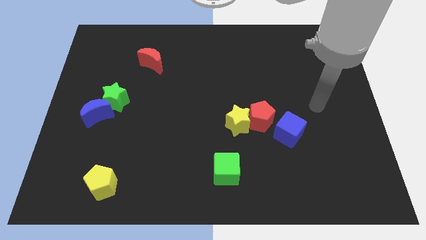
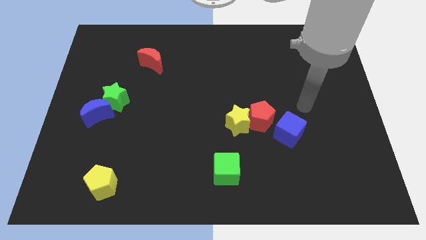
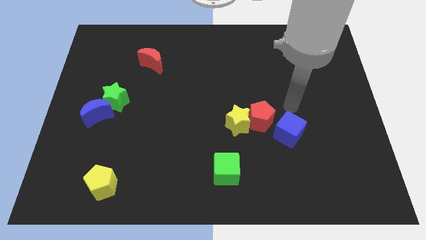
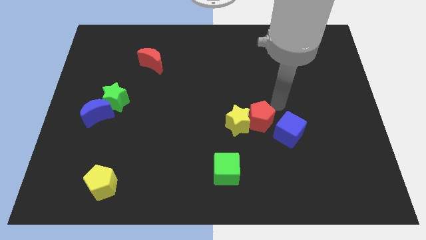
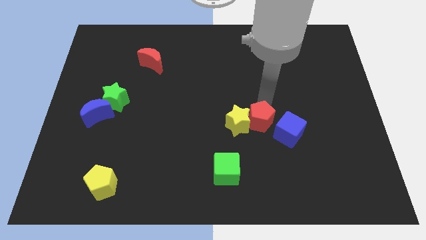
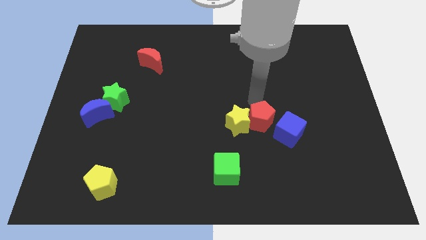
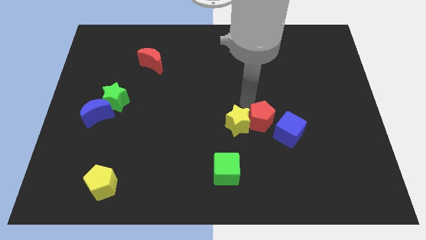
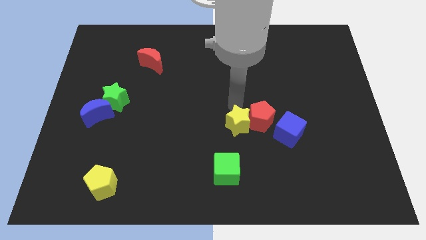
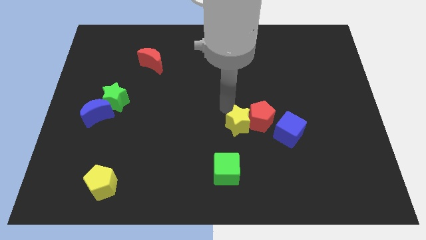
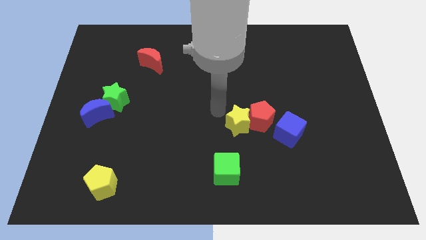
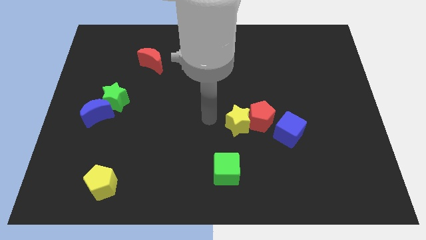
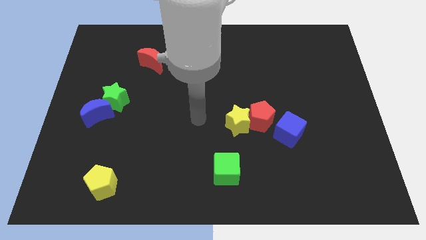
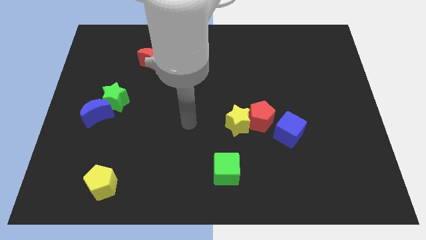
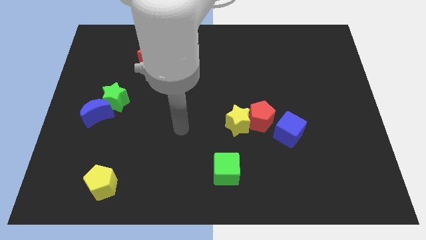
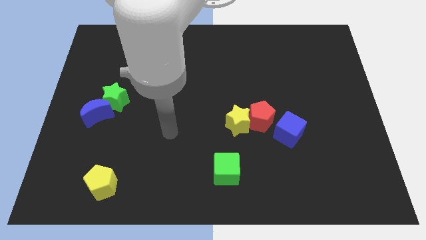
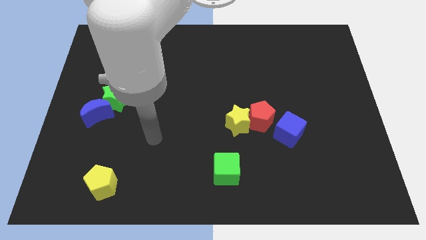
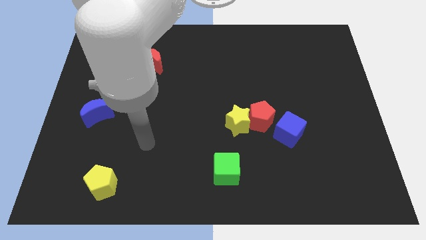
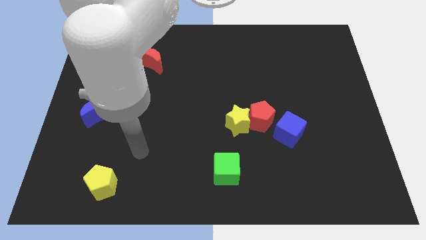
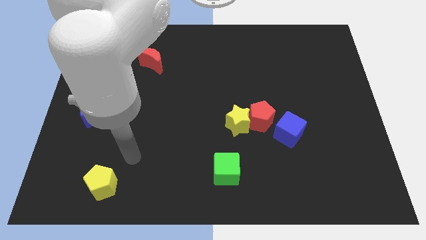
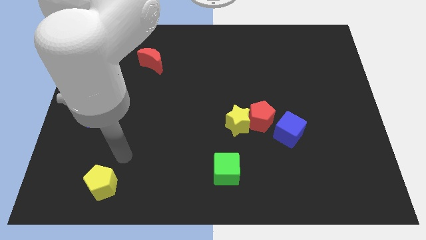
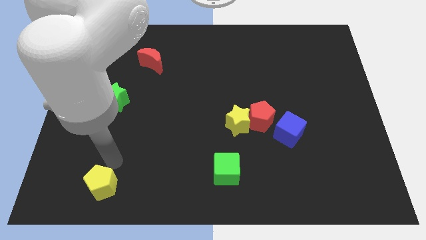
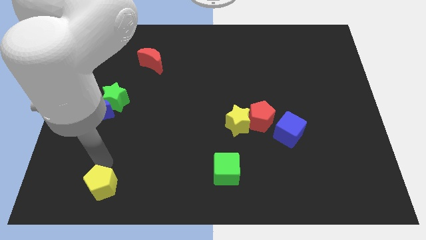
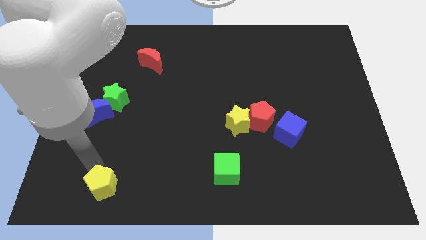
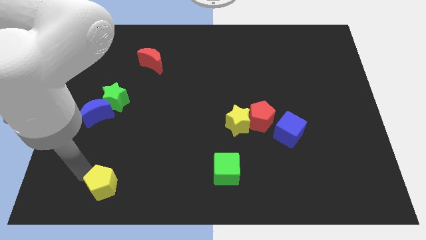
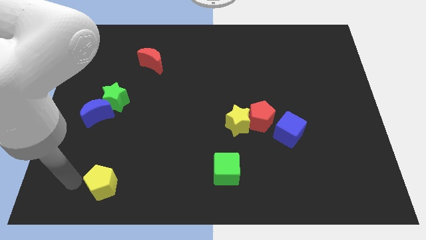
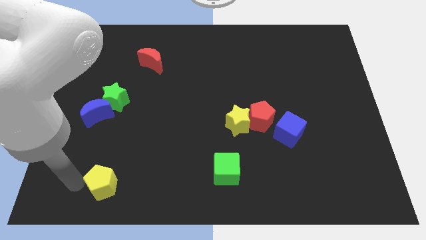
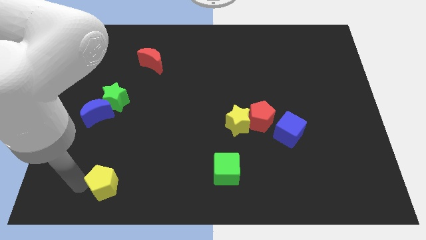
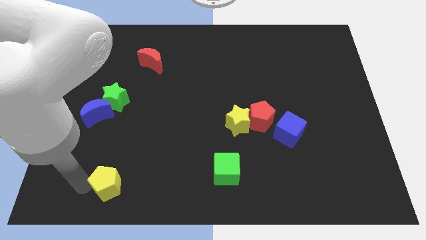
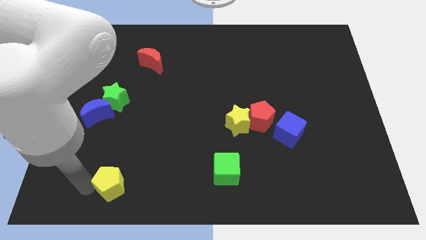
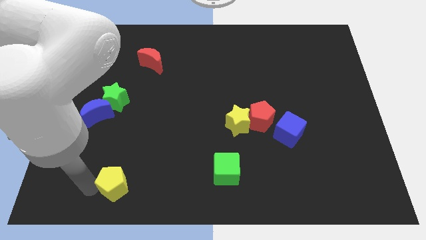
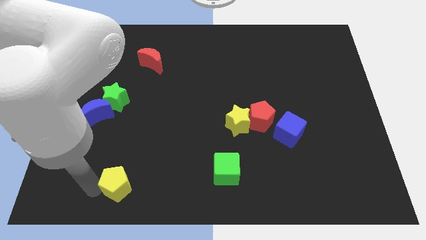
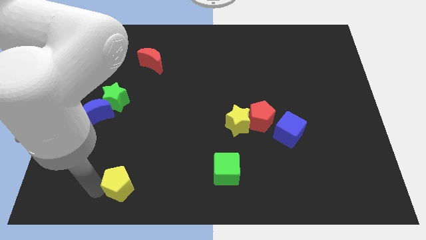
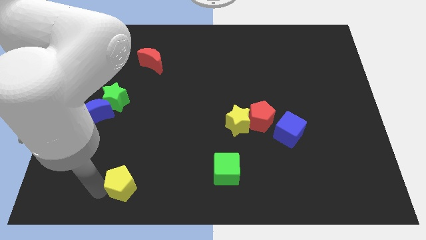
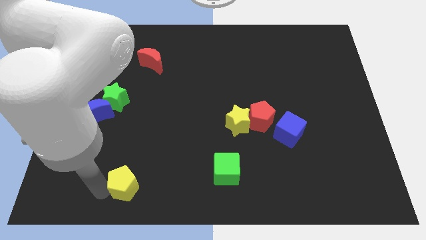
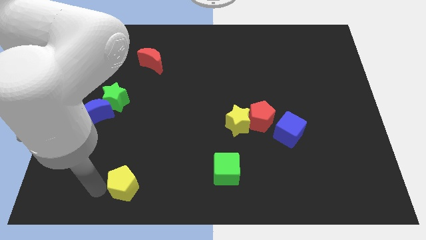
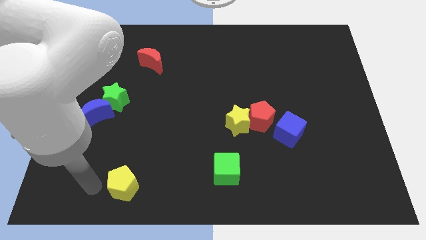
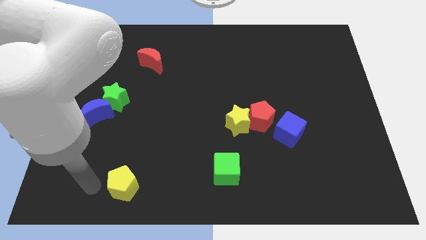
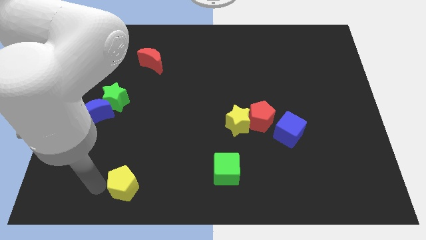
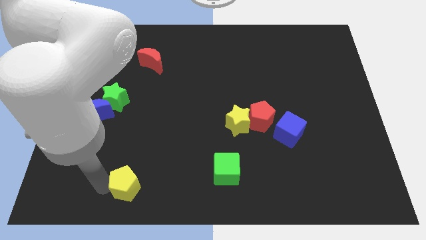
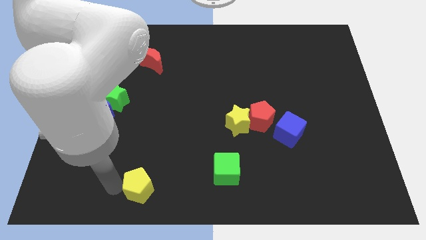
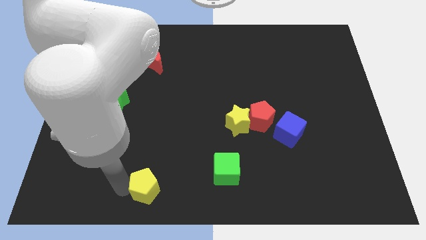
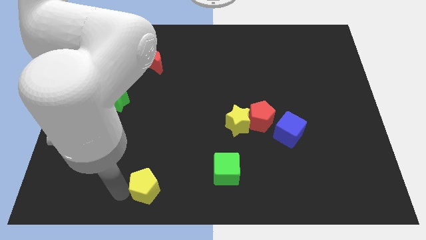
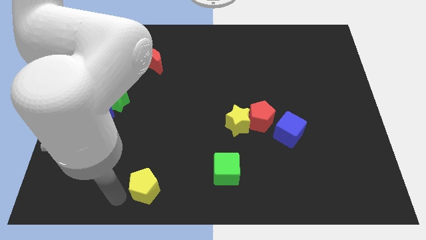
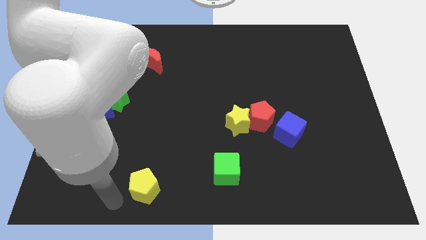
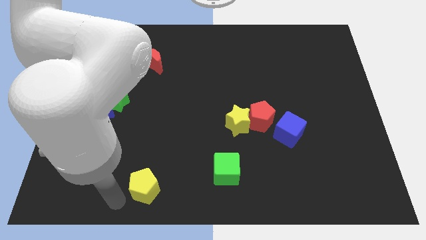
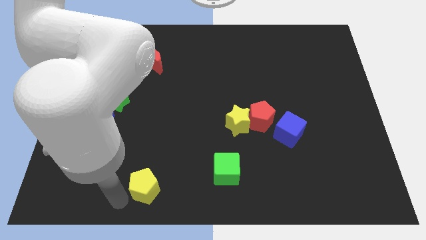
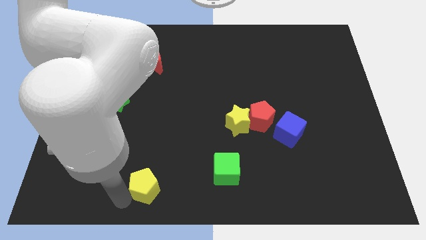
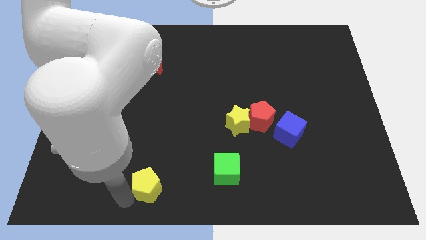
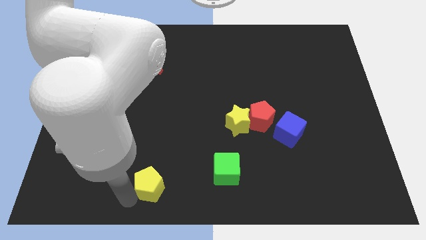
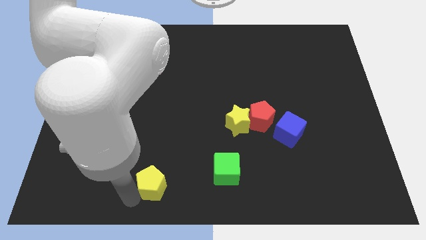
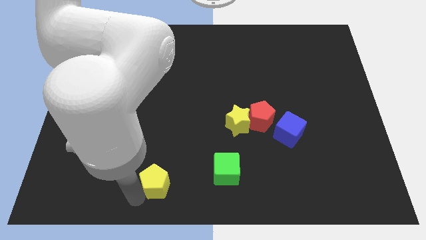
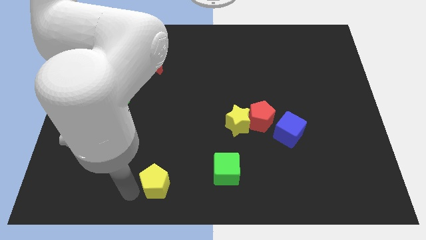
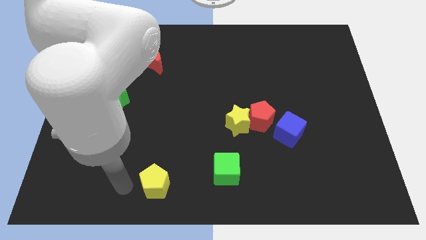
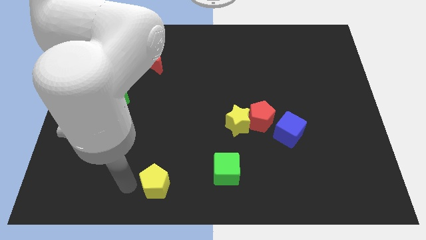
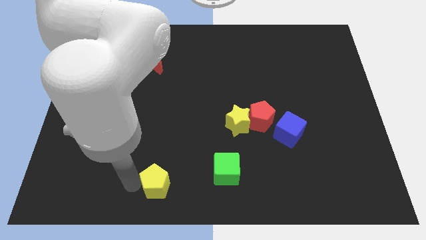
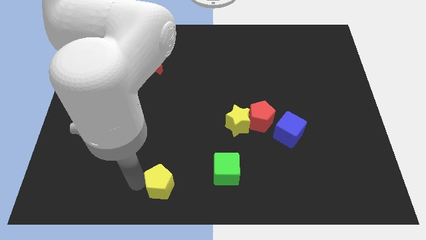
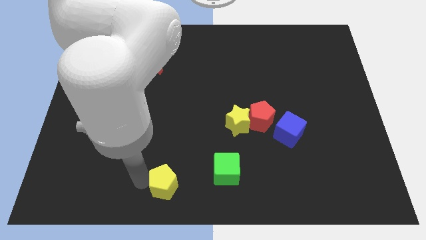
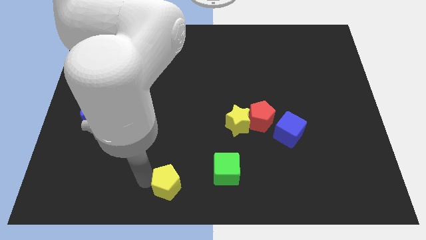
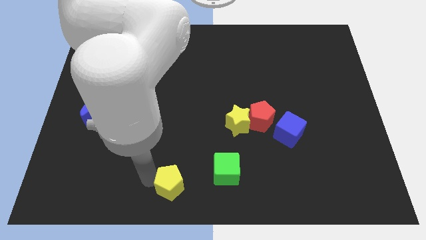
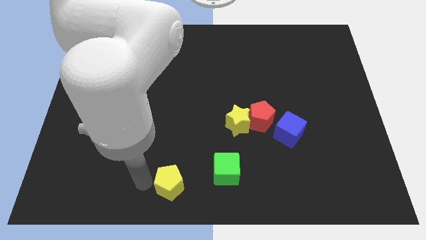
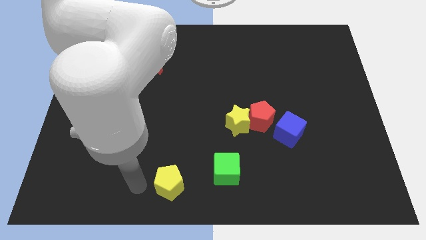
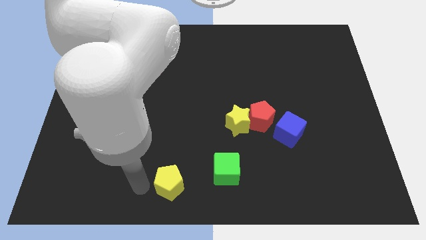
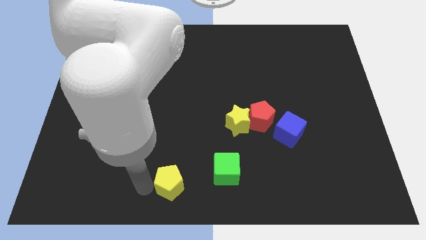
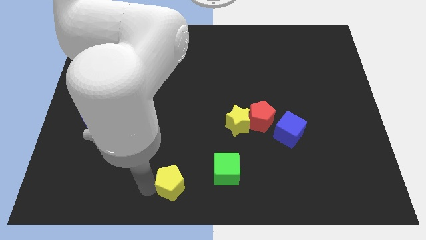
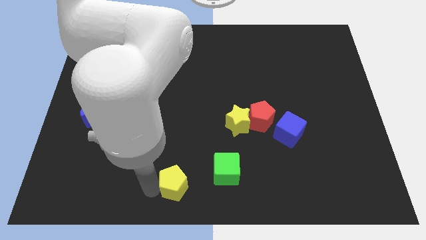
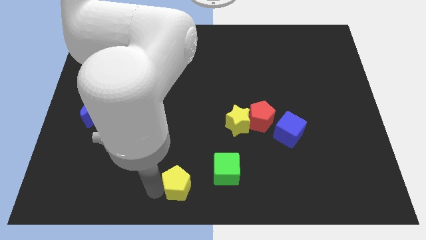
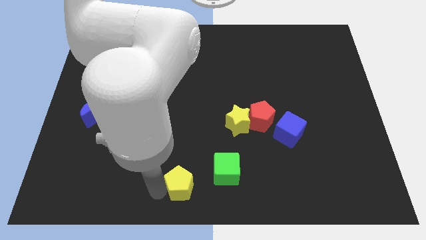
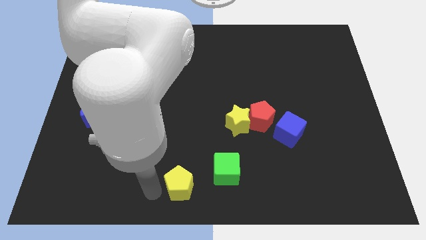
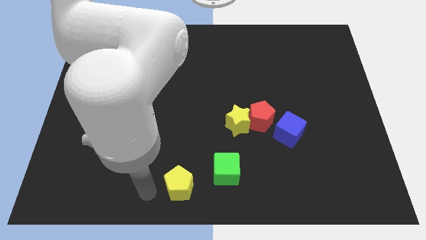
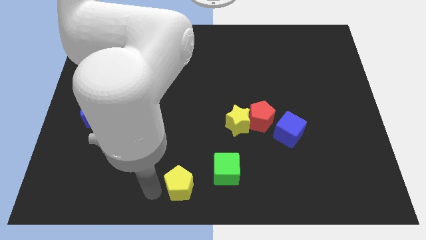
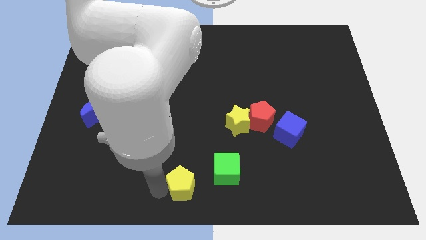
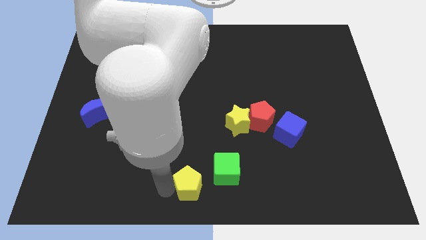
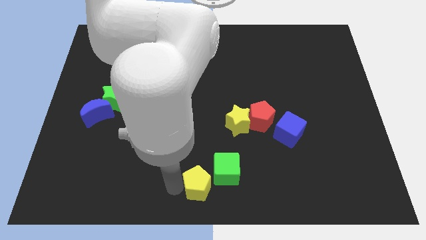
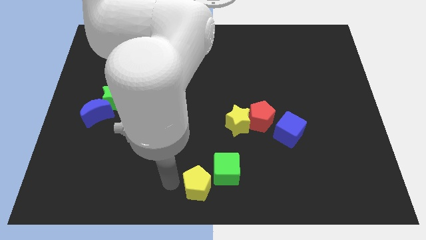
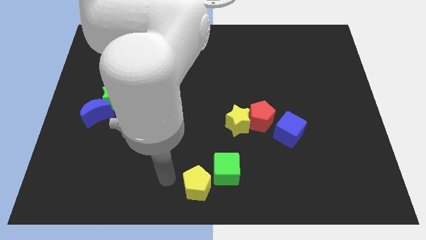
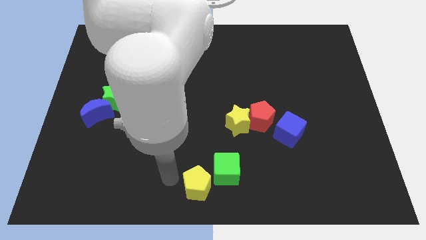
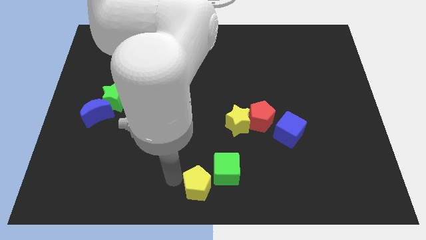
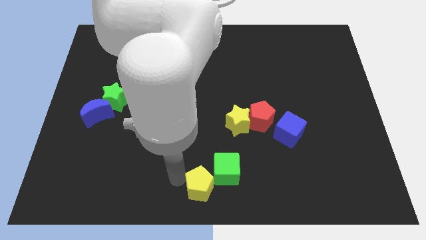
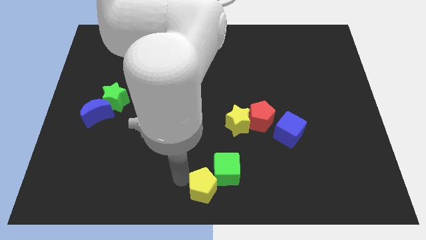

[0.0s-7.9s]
move the yellow pentagon to the right
